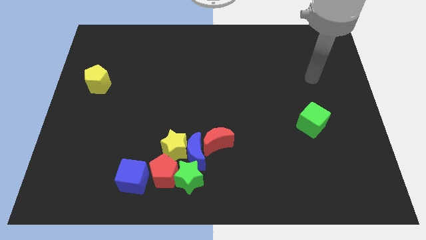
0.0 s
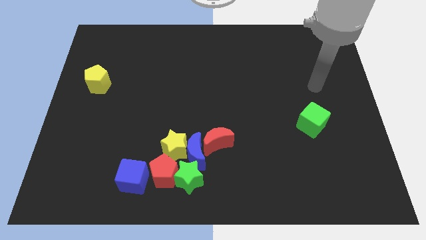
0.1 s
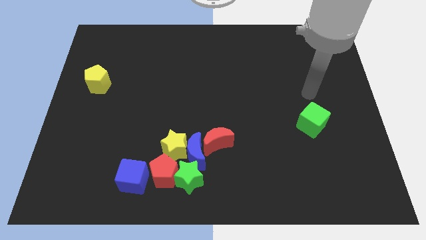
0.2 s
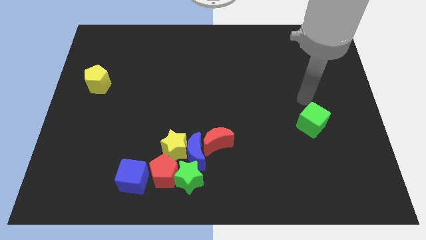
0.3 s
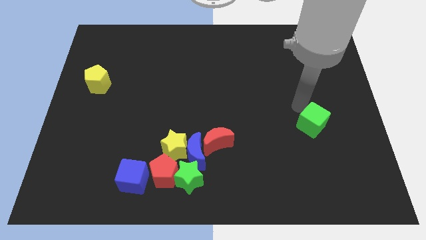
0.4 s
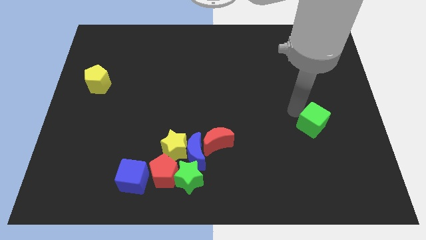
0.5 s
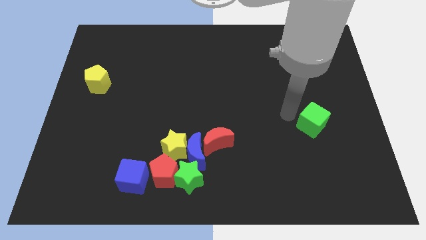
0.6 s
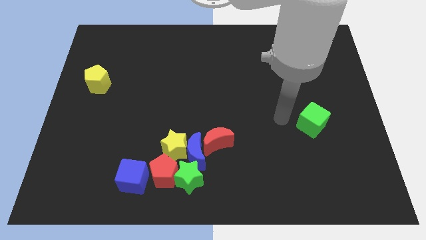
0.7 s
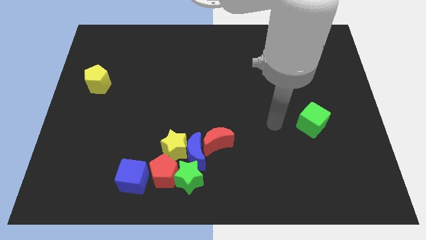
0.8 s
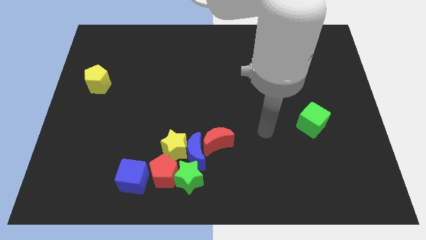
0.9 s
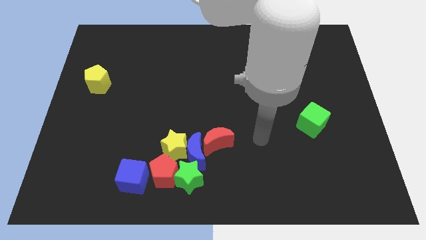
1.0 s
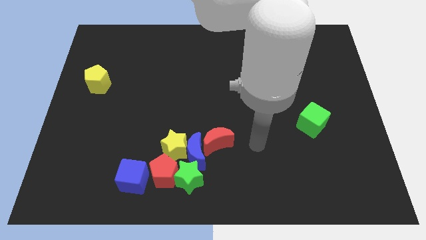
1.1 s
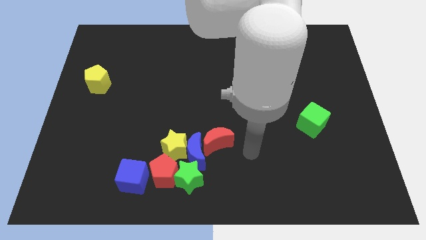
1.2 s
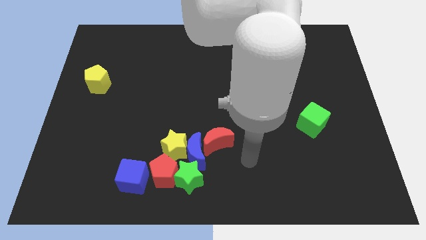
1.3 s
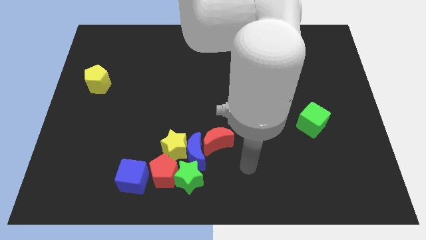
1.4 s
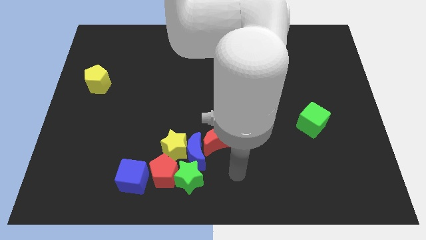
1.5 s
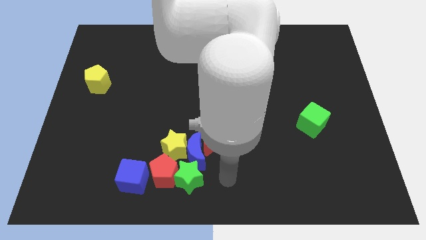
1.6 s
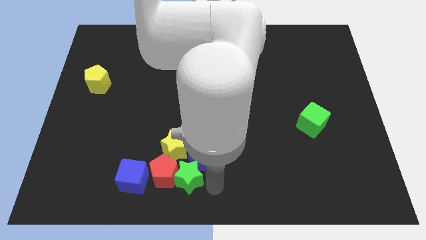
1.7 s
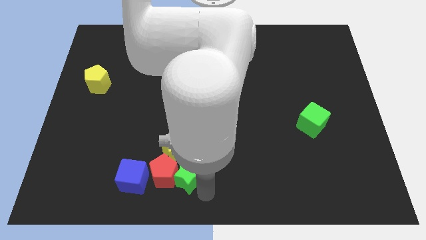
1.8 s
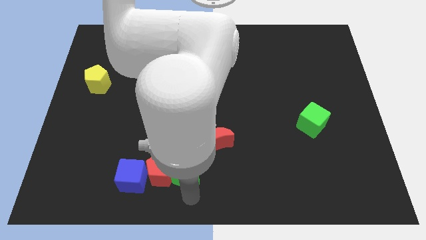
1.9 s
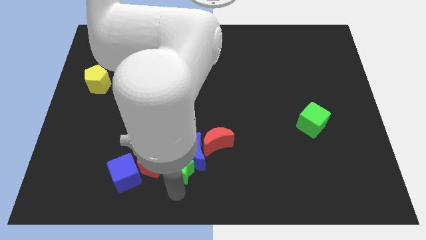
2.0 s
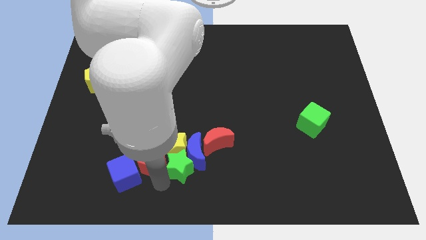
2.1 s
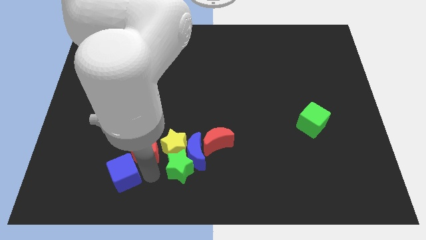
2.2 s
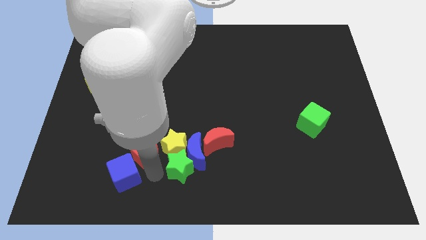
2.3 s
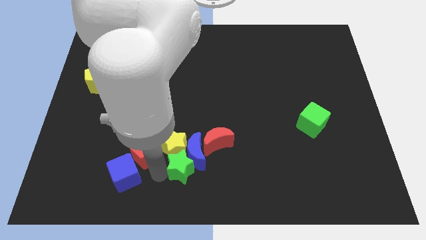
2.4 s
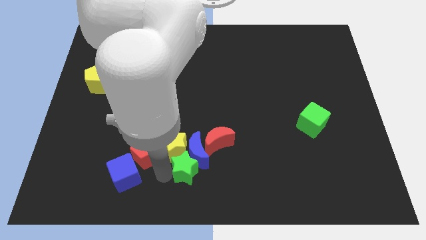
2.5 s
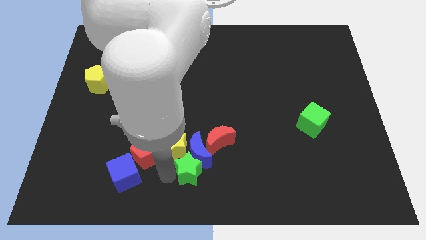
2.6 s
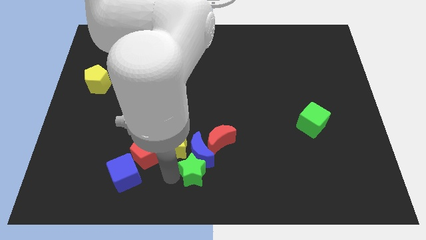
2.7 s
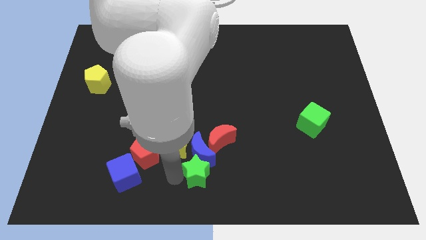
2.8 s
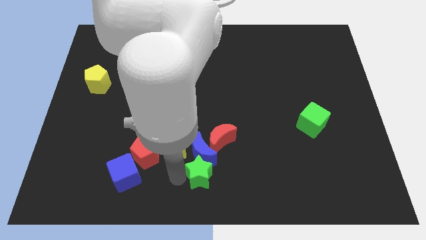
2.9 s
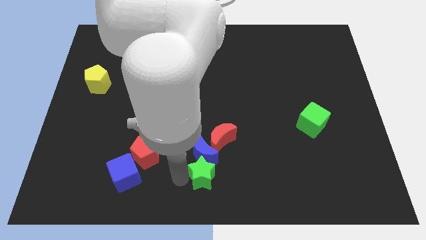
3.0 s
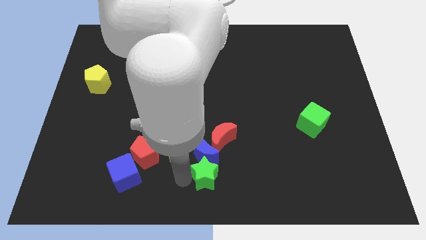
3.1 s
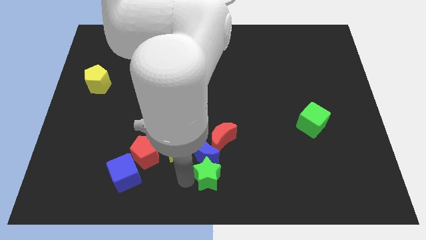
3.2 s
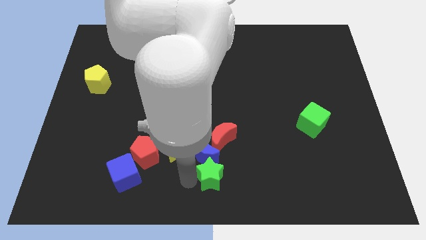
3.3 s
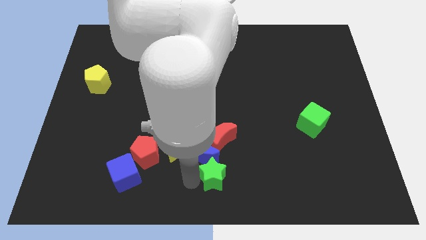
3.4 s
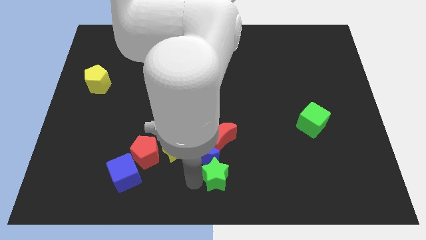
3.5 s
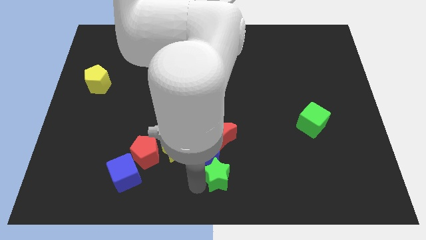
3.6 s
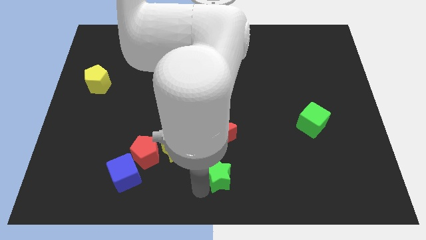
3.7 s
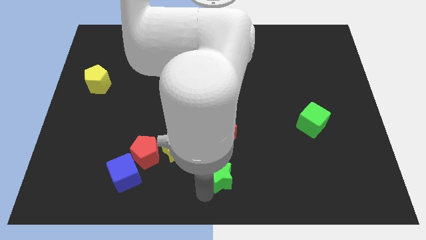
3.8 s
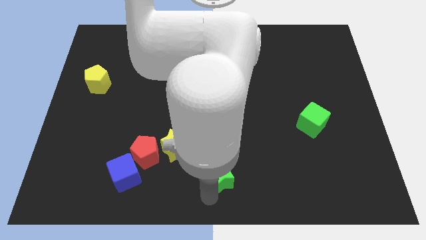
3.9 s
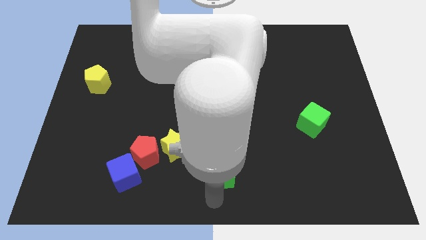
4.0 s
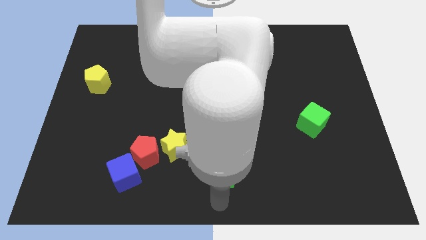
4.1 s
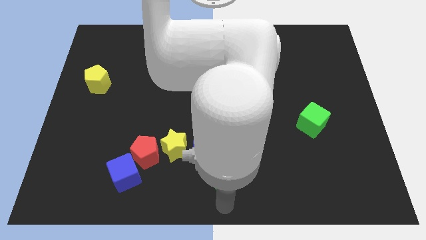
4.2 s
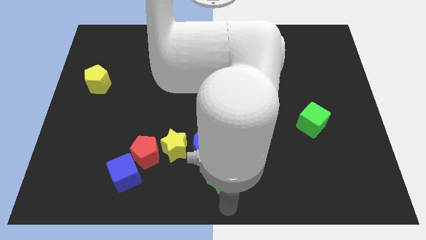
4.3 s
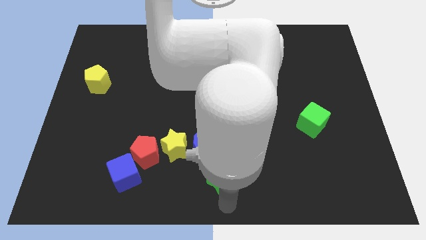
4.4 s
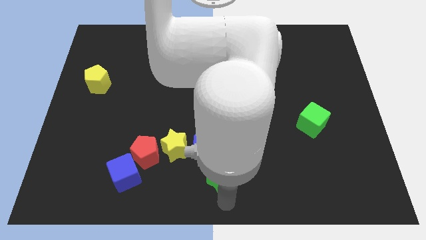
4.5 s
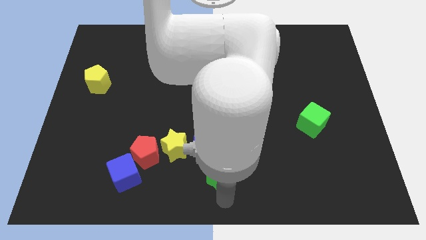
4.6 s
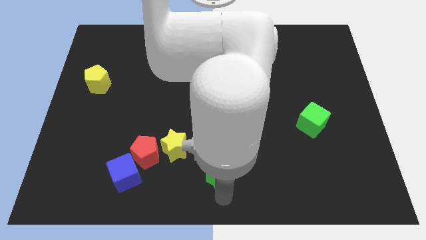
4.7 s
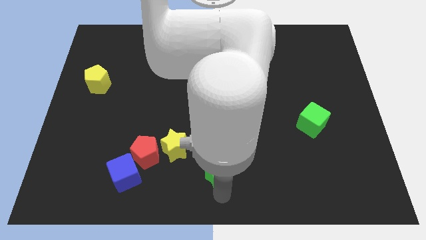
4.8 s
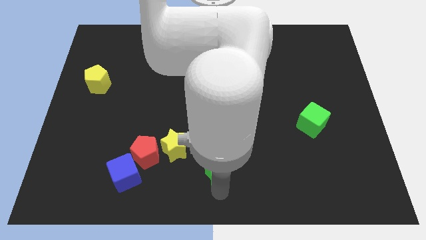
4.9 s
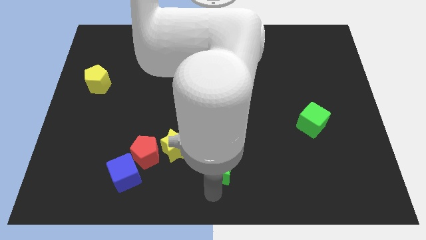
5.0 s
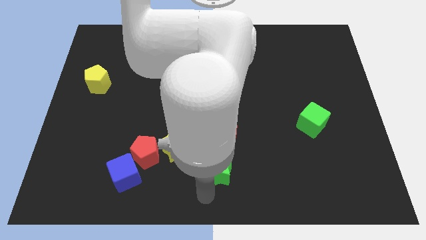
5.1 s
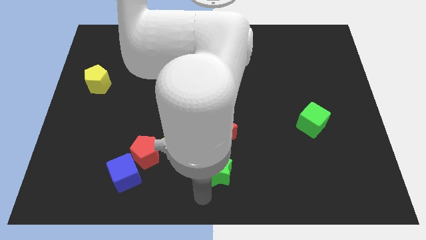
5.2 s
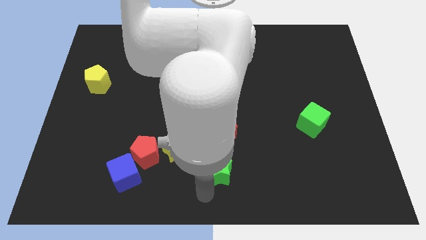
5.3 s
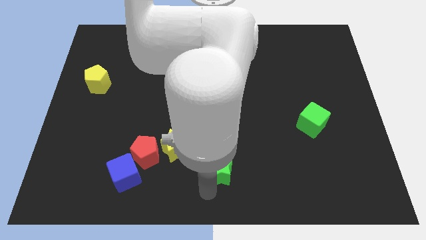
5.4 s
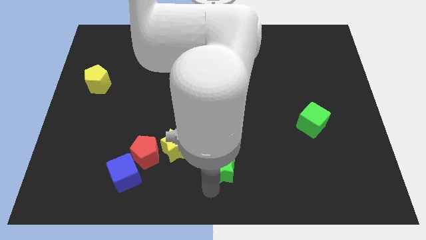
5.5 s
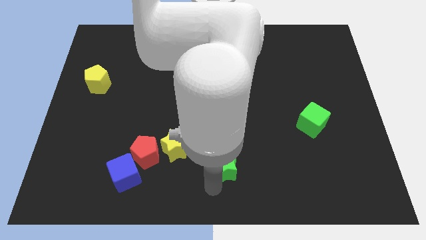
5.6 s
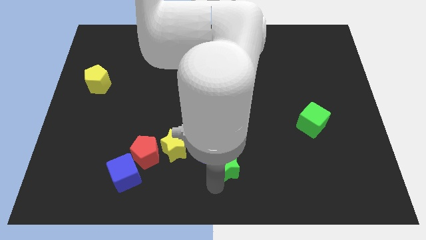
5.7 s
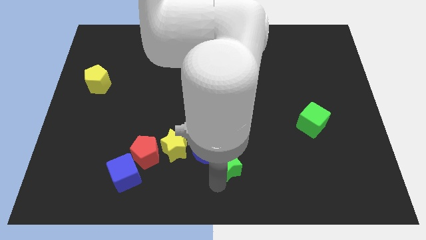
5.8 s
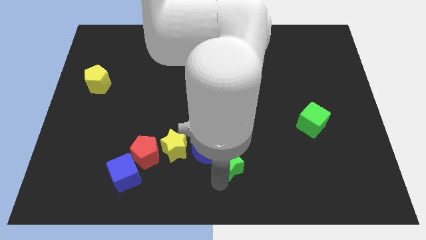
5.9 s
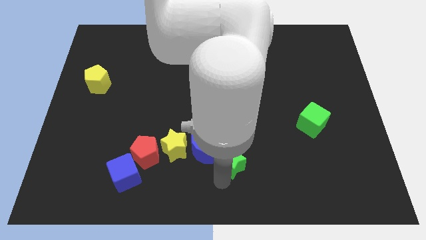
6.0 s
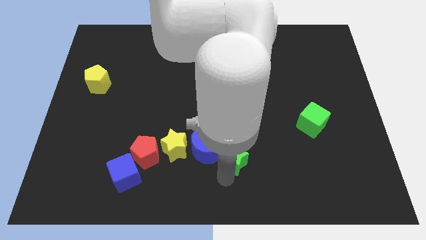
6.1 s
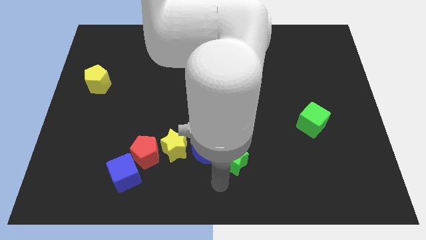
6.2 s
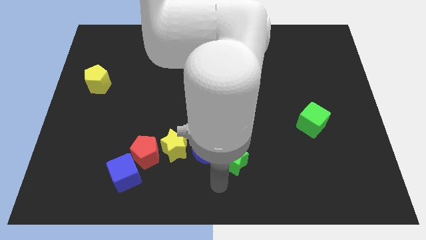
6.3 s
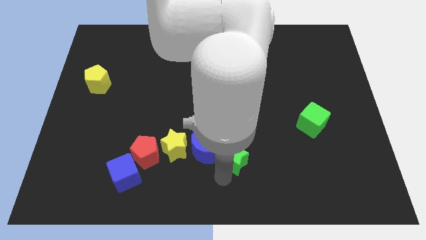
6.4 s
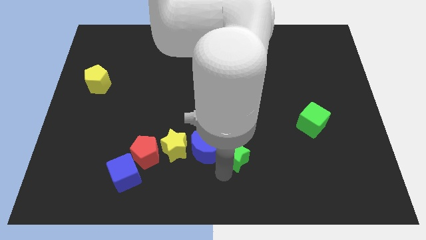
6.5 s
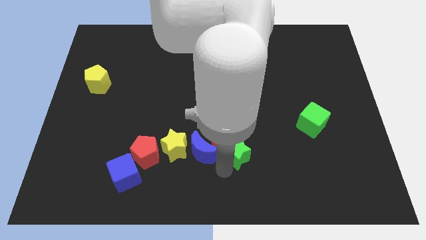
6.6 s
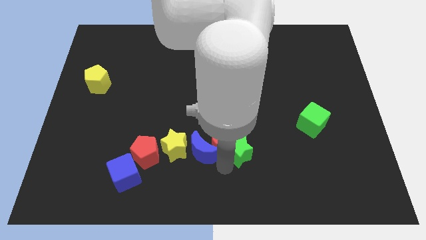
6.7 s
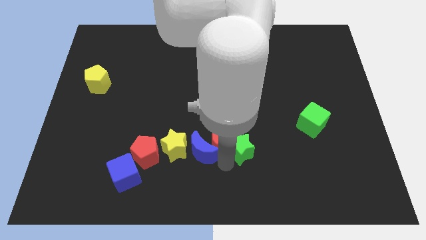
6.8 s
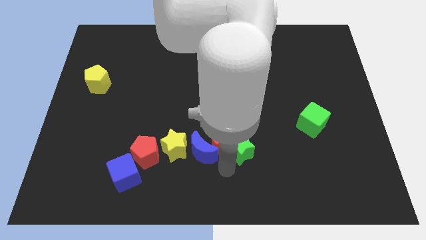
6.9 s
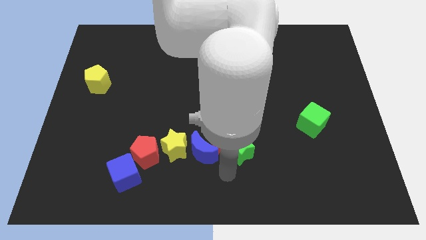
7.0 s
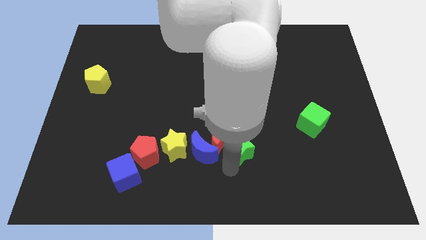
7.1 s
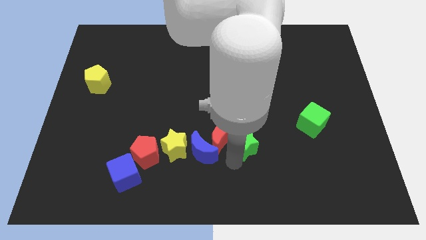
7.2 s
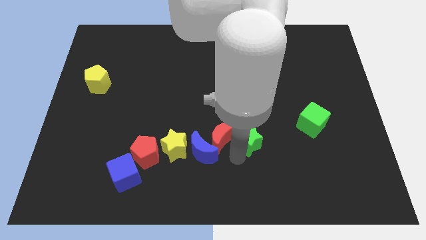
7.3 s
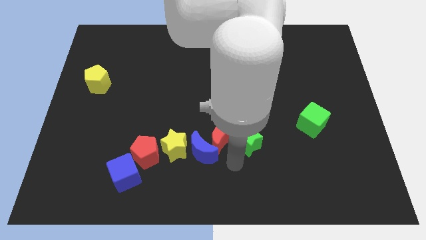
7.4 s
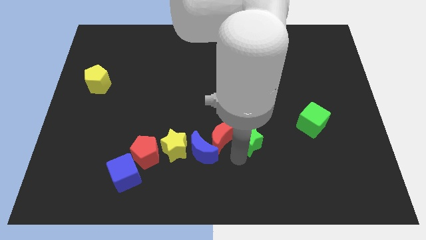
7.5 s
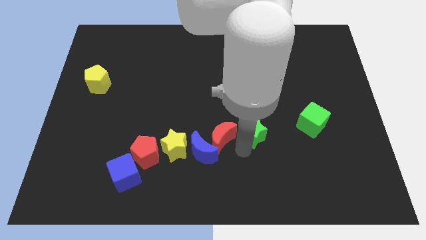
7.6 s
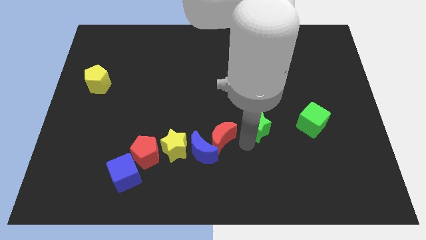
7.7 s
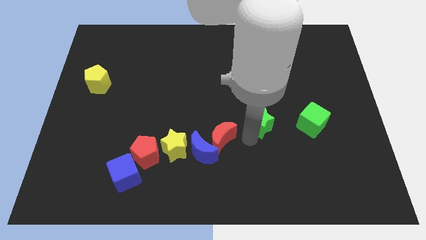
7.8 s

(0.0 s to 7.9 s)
move the green star upwards and right diagonally

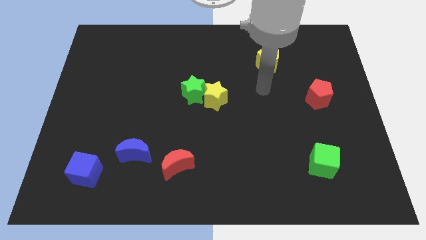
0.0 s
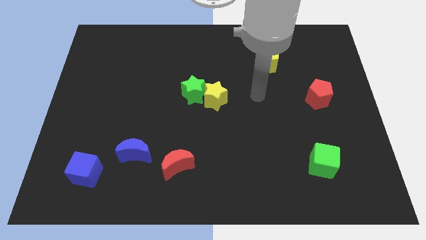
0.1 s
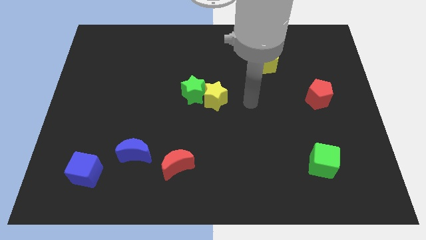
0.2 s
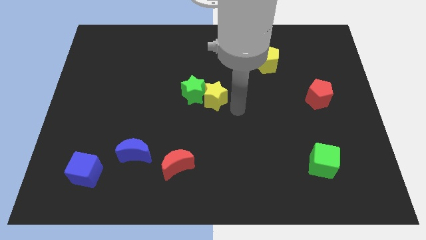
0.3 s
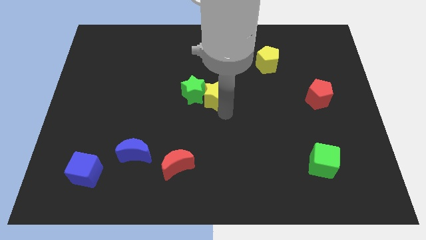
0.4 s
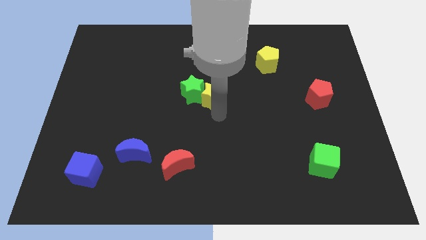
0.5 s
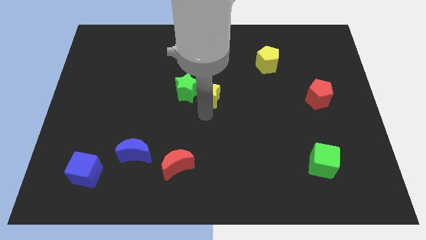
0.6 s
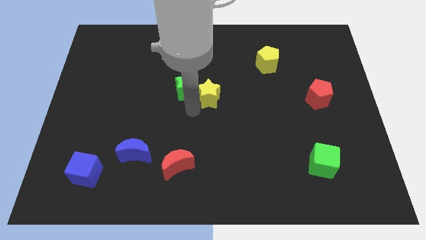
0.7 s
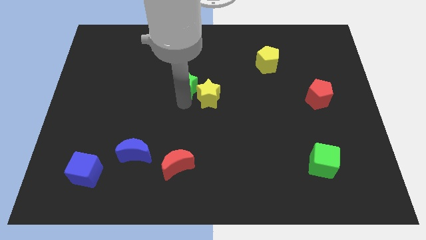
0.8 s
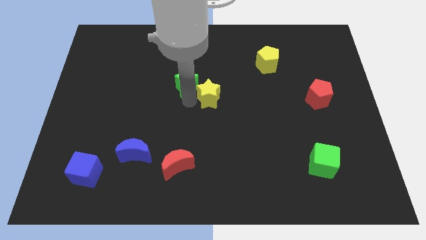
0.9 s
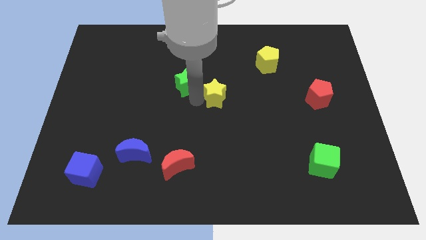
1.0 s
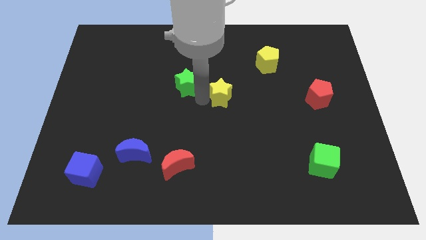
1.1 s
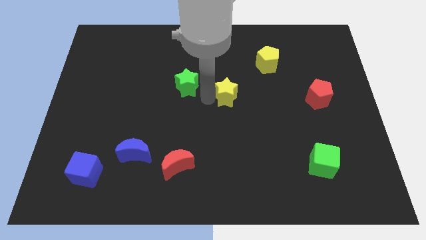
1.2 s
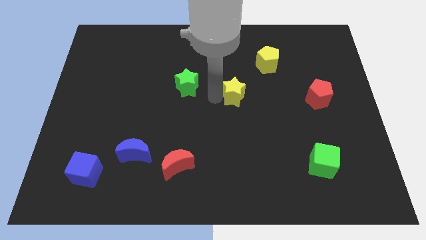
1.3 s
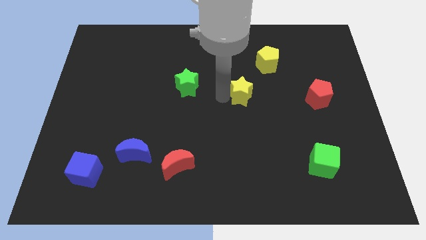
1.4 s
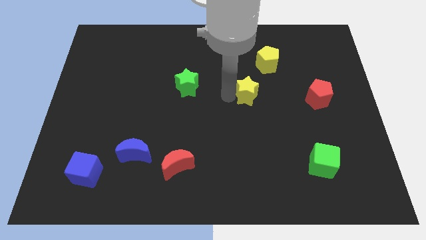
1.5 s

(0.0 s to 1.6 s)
move the yellow star right a bit
